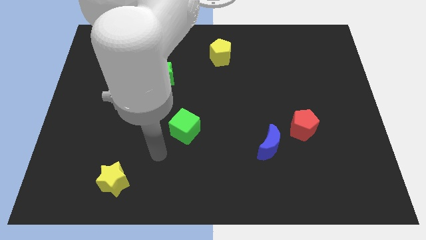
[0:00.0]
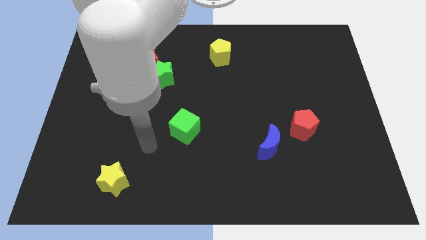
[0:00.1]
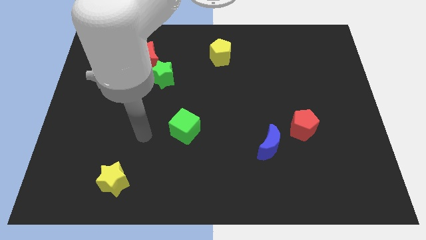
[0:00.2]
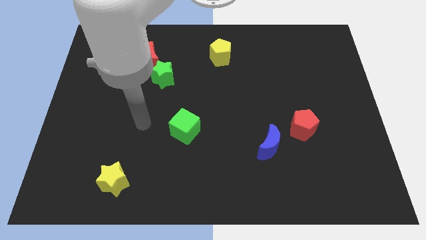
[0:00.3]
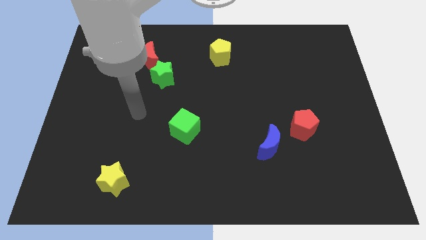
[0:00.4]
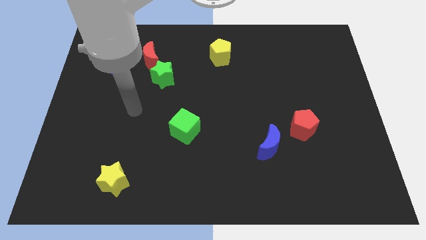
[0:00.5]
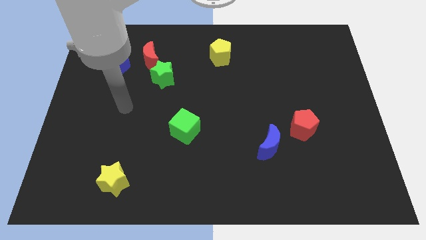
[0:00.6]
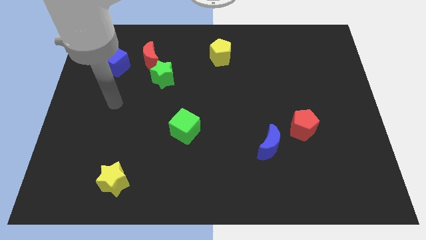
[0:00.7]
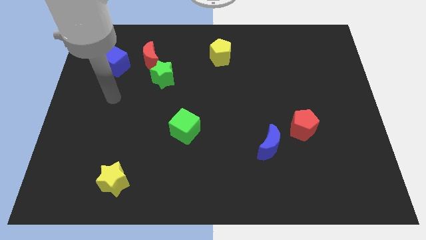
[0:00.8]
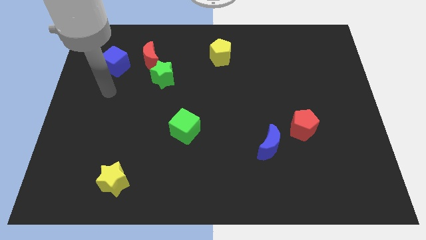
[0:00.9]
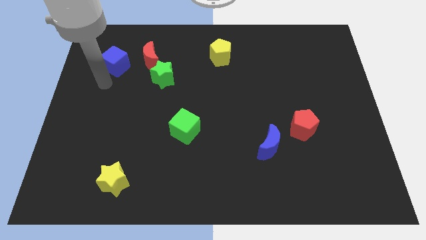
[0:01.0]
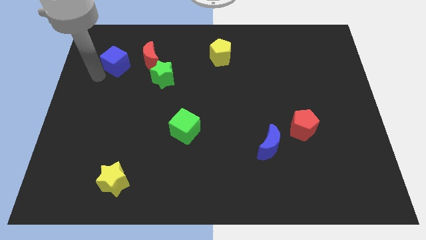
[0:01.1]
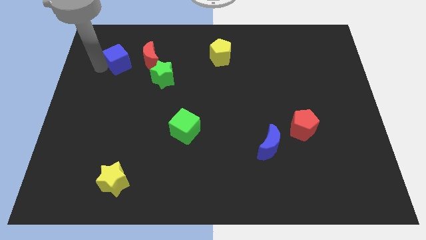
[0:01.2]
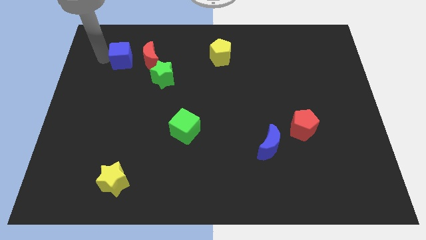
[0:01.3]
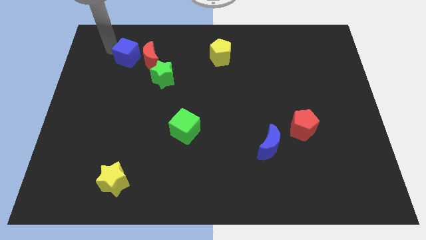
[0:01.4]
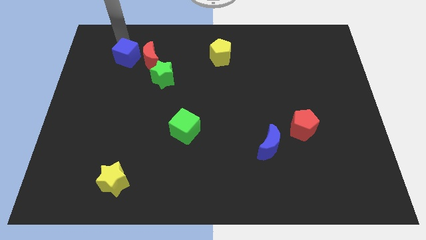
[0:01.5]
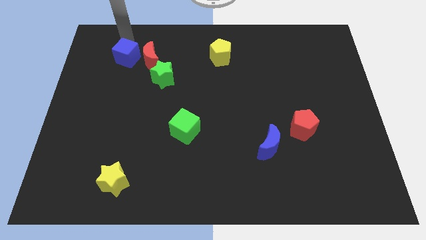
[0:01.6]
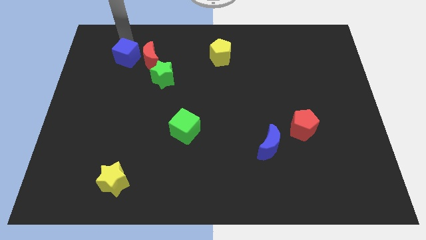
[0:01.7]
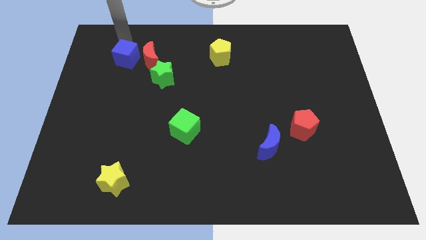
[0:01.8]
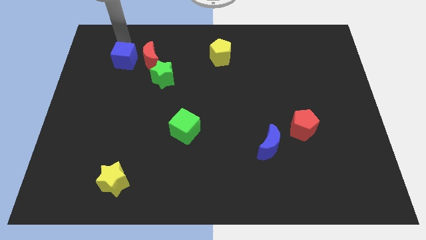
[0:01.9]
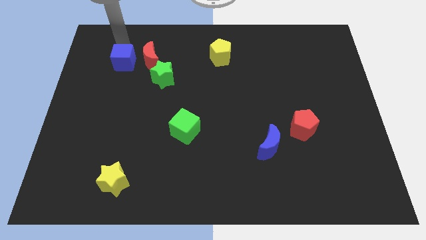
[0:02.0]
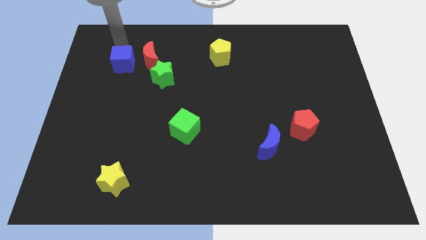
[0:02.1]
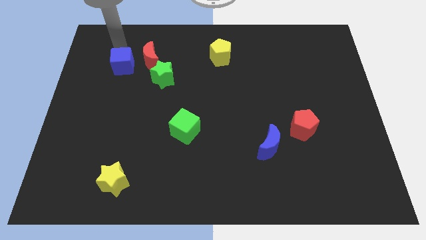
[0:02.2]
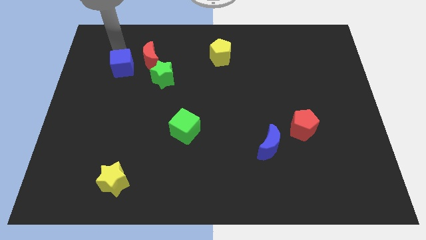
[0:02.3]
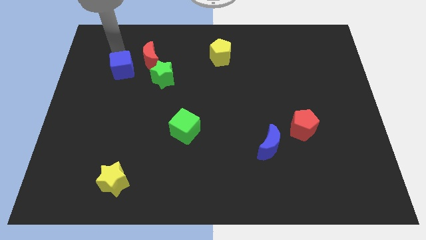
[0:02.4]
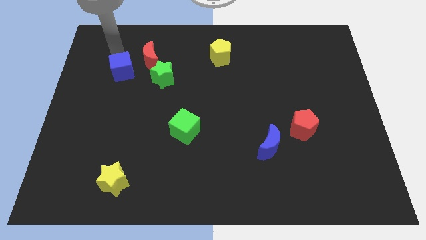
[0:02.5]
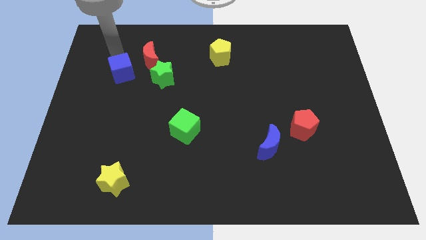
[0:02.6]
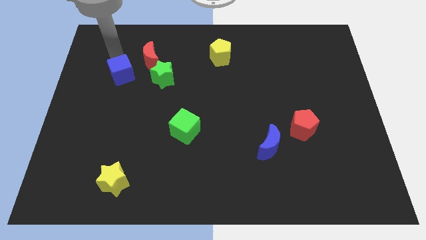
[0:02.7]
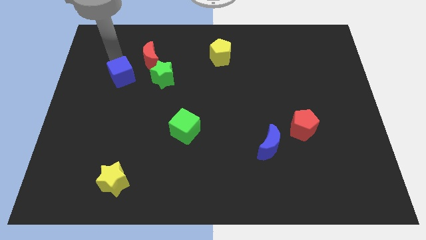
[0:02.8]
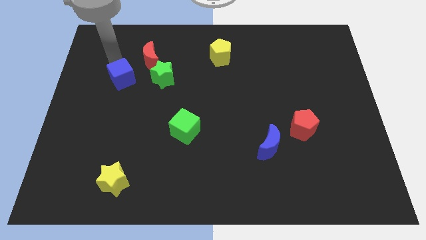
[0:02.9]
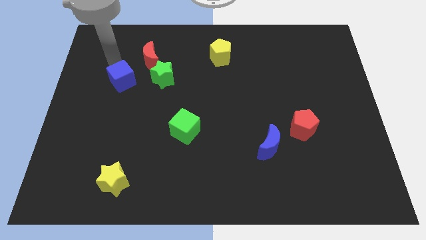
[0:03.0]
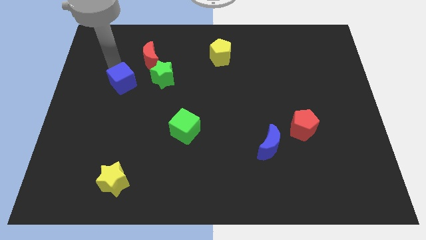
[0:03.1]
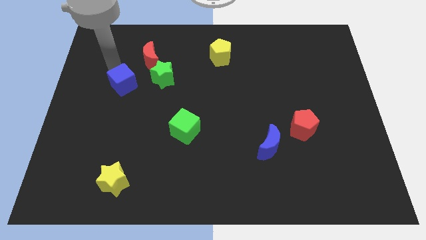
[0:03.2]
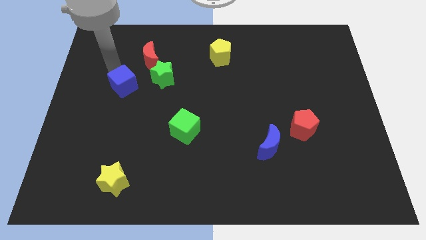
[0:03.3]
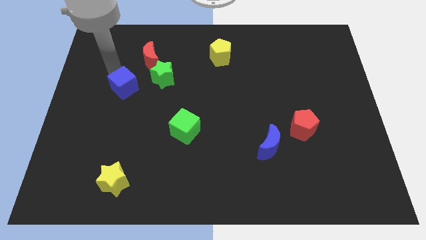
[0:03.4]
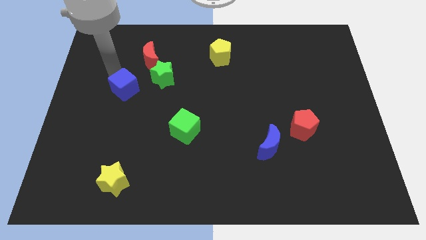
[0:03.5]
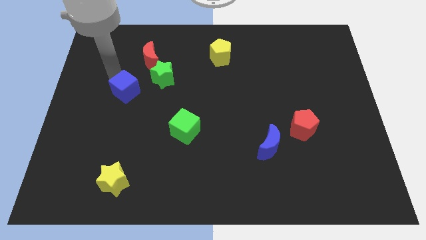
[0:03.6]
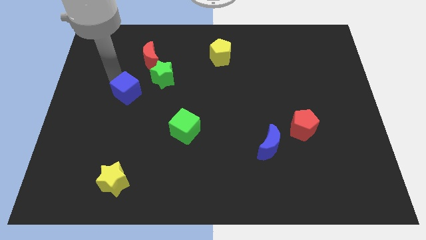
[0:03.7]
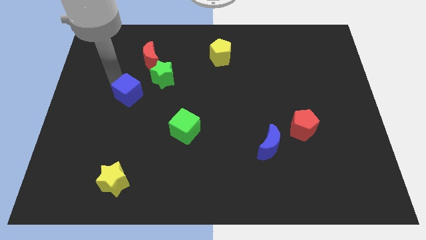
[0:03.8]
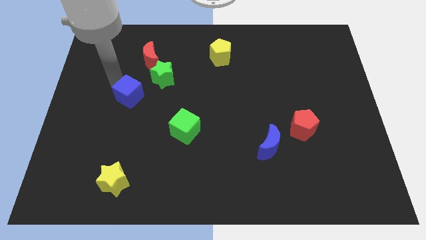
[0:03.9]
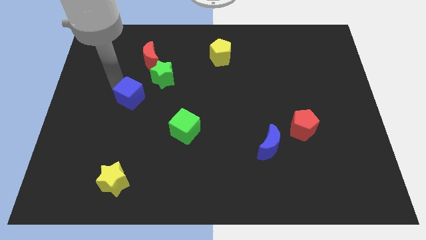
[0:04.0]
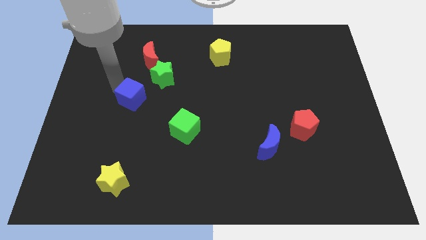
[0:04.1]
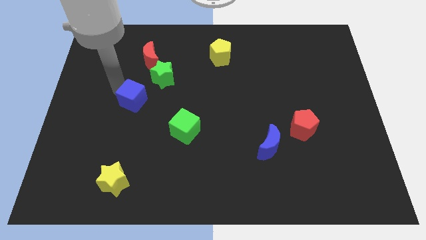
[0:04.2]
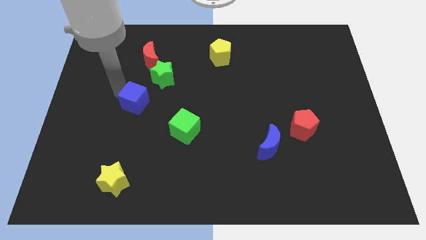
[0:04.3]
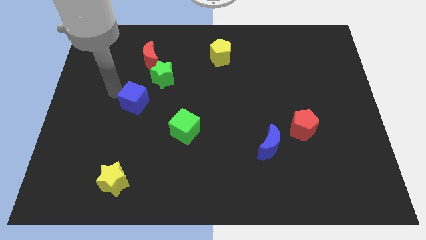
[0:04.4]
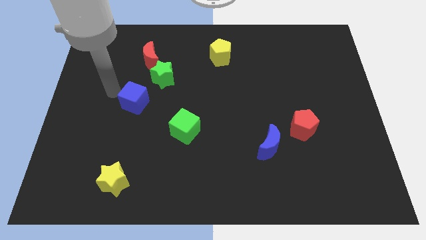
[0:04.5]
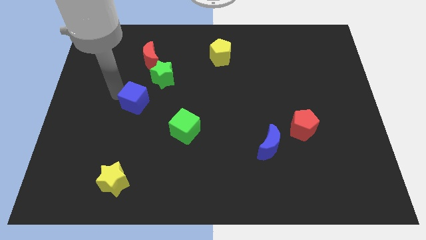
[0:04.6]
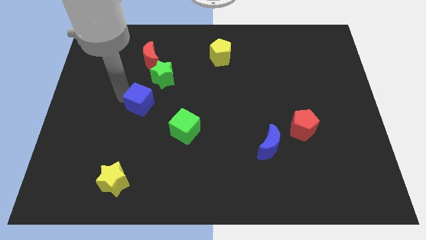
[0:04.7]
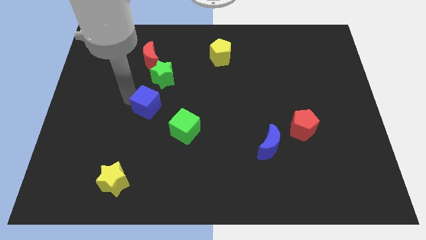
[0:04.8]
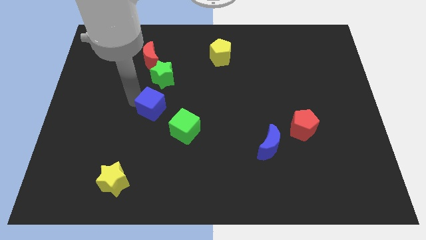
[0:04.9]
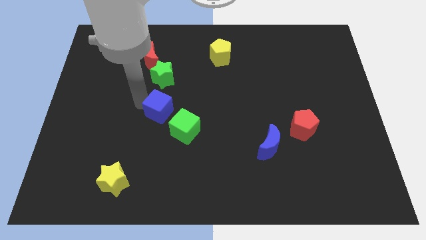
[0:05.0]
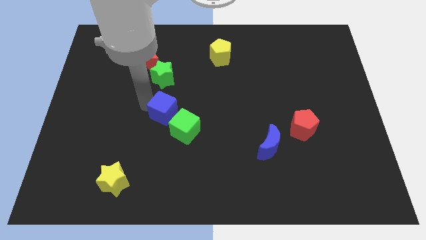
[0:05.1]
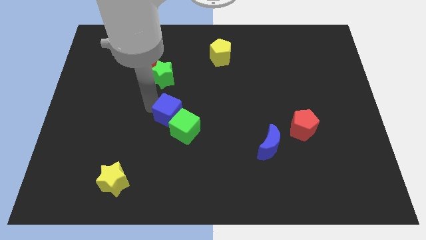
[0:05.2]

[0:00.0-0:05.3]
push the blue cube close to the green cube

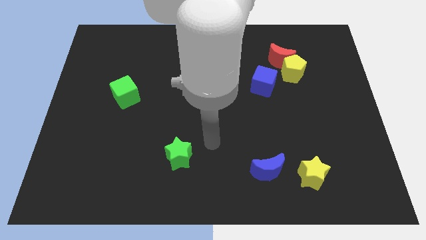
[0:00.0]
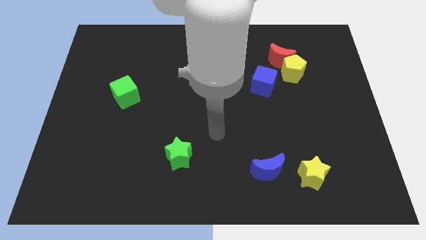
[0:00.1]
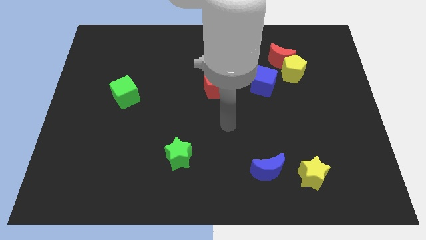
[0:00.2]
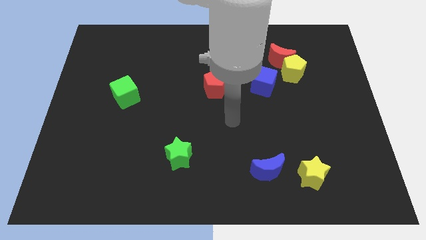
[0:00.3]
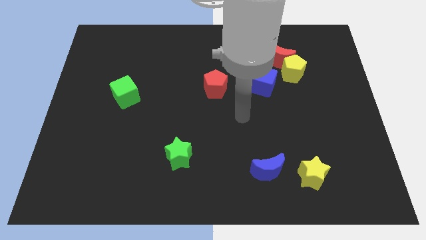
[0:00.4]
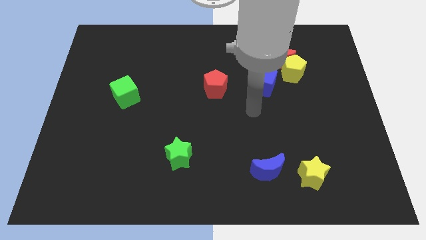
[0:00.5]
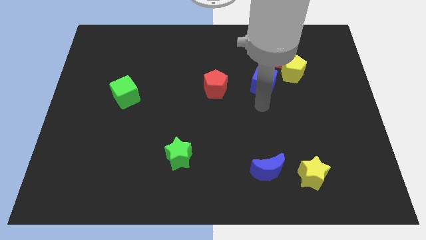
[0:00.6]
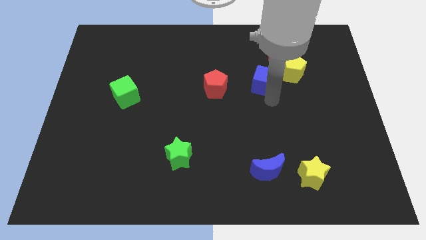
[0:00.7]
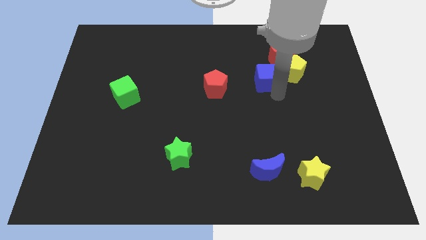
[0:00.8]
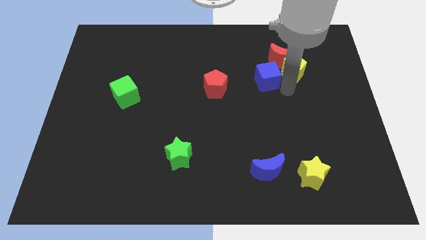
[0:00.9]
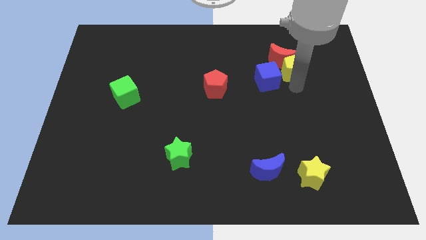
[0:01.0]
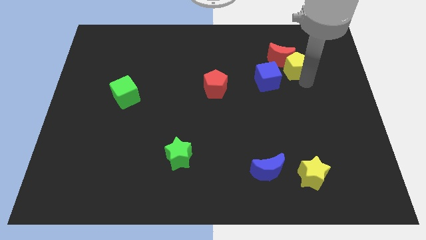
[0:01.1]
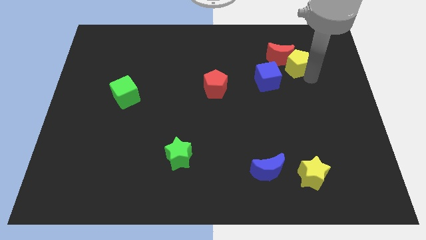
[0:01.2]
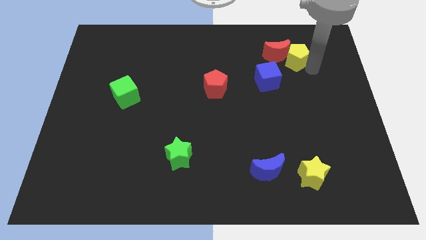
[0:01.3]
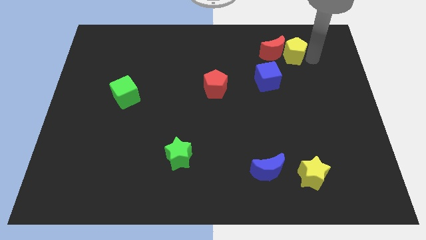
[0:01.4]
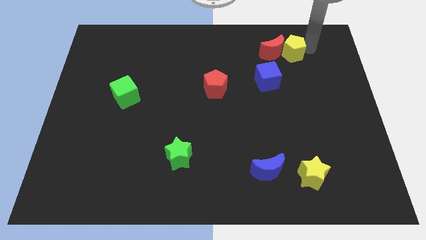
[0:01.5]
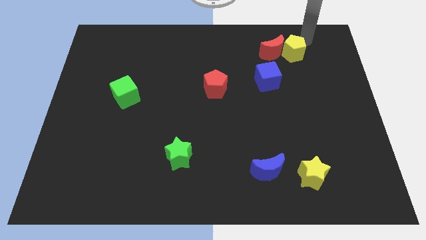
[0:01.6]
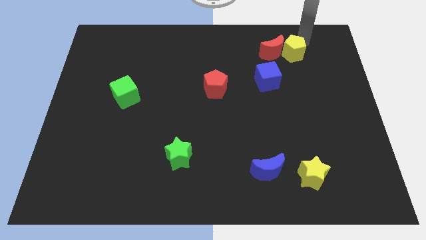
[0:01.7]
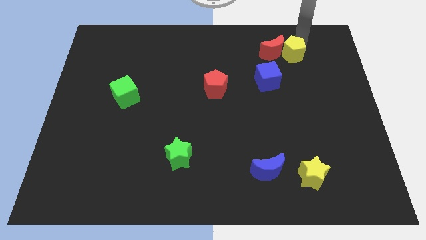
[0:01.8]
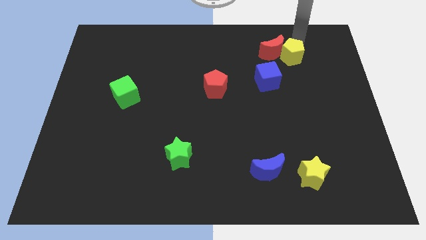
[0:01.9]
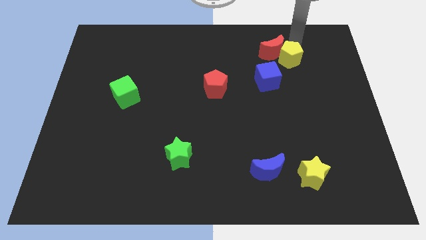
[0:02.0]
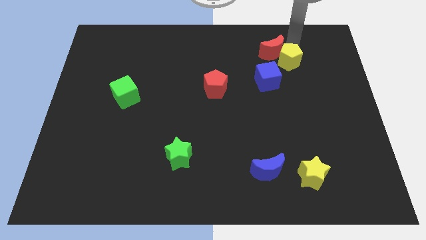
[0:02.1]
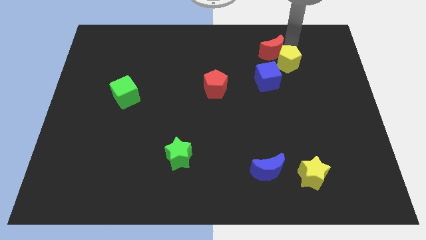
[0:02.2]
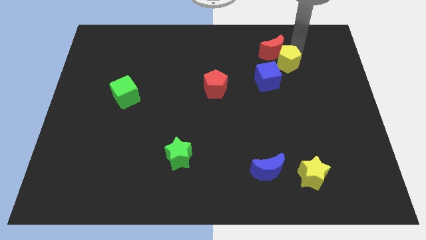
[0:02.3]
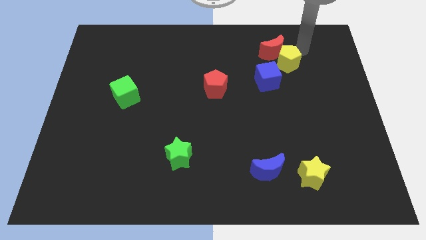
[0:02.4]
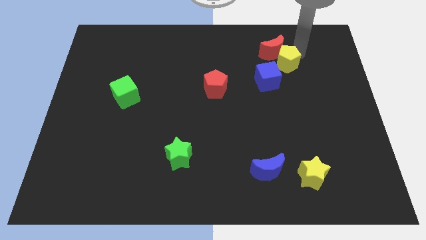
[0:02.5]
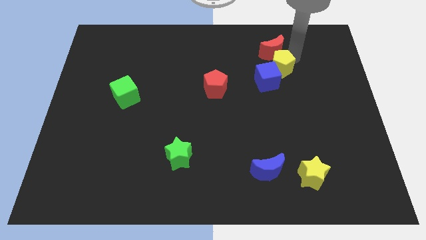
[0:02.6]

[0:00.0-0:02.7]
slide the yellow pentagon close to the blue cube
